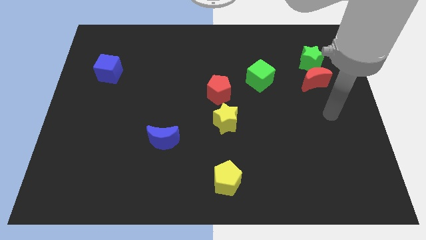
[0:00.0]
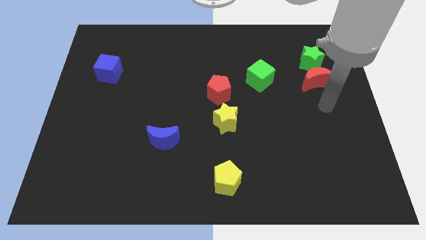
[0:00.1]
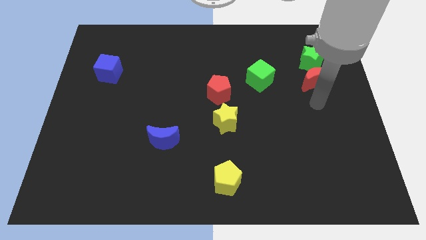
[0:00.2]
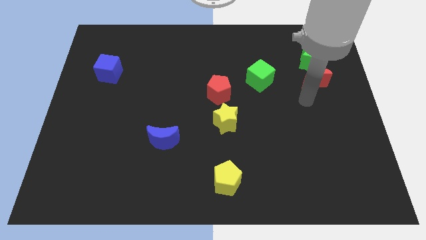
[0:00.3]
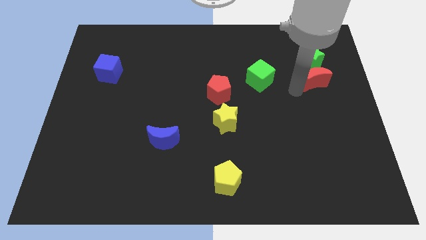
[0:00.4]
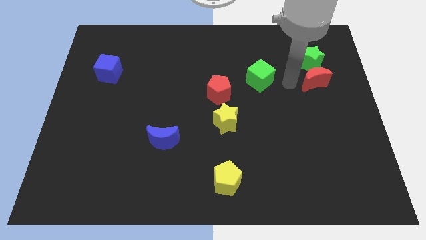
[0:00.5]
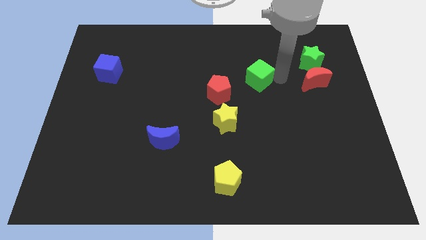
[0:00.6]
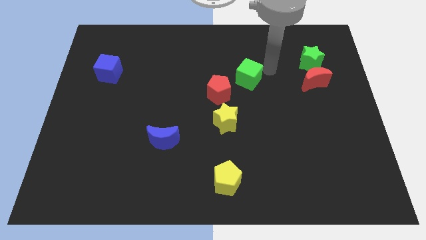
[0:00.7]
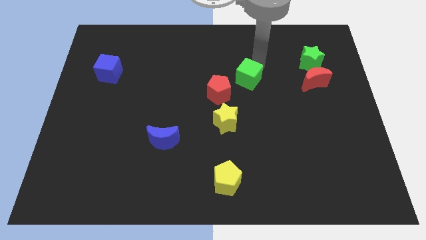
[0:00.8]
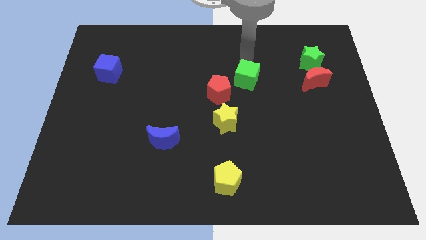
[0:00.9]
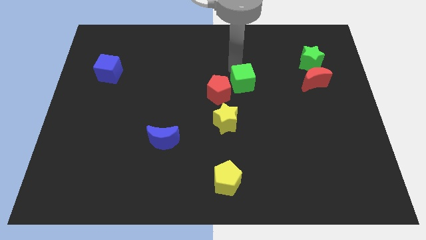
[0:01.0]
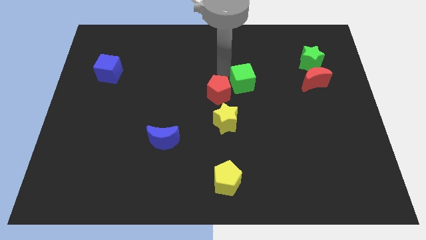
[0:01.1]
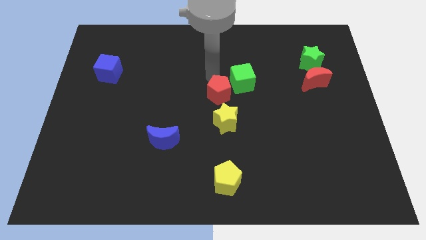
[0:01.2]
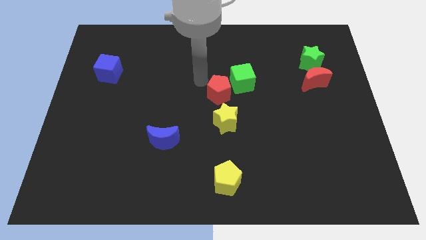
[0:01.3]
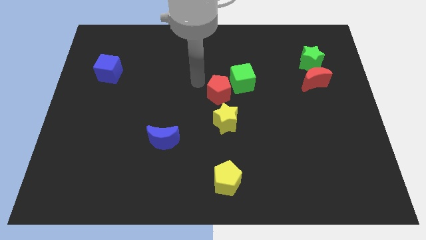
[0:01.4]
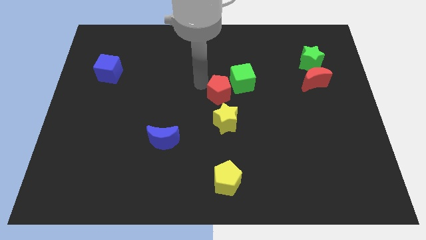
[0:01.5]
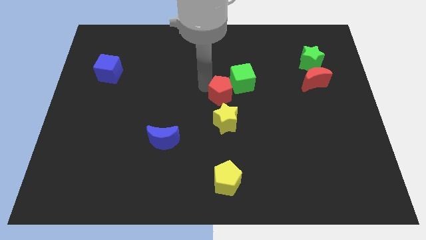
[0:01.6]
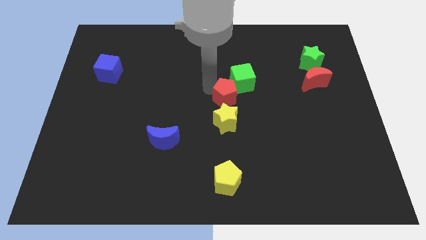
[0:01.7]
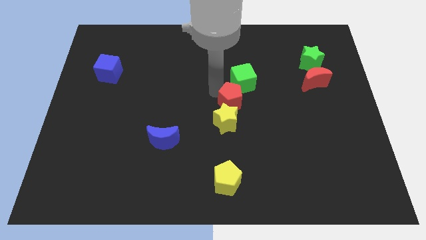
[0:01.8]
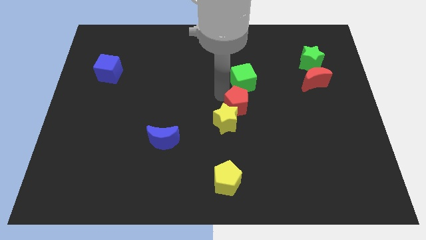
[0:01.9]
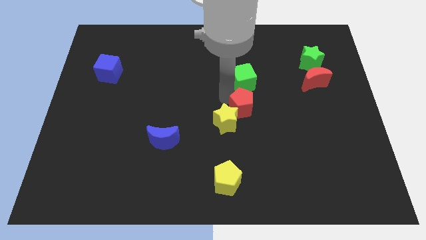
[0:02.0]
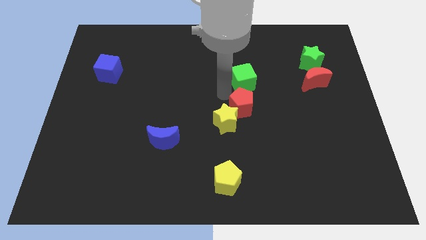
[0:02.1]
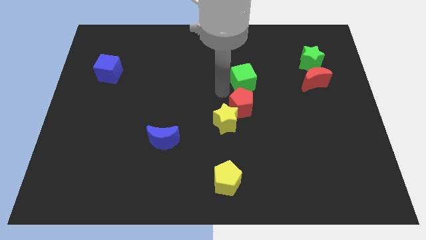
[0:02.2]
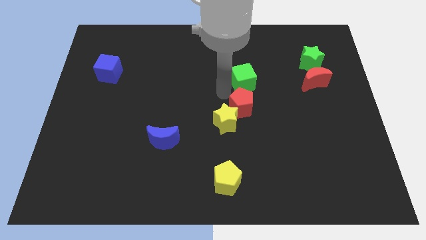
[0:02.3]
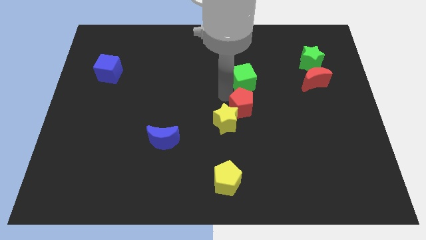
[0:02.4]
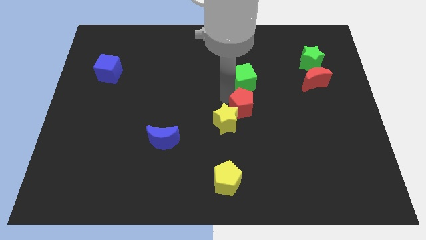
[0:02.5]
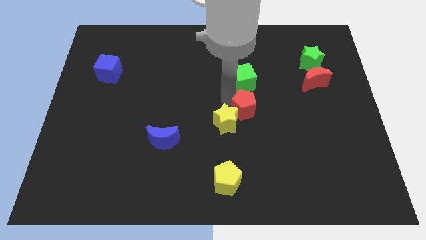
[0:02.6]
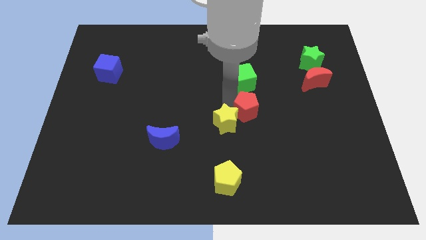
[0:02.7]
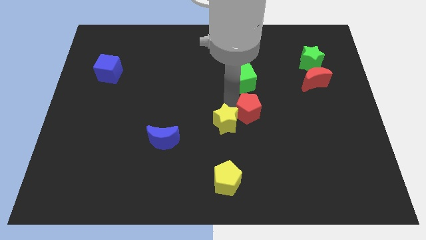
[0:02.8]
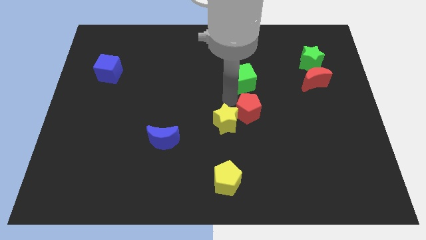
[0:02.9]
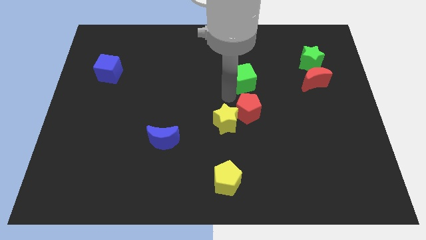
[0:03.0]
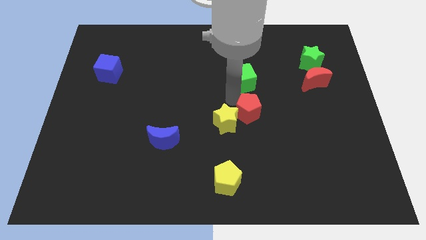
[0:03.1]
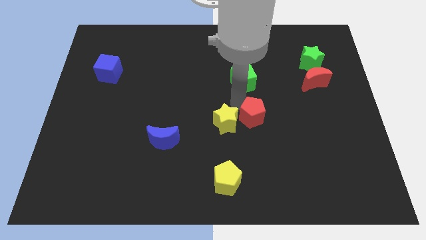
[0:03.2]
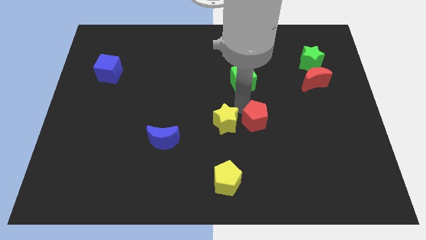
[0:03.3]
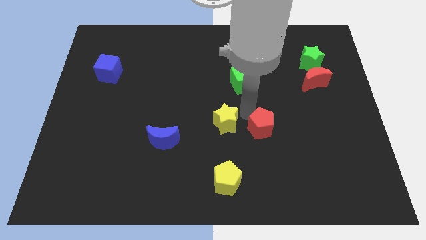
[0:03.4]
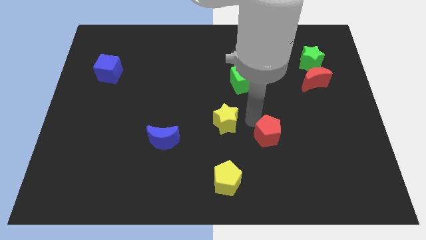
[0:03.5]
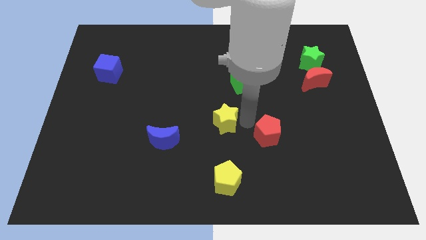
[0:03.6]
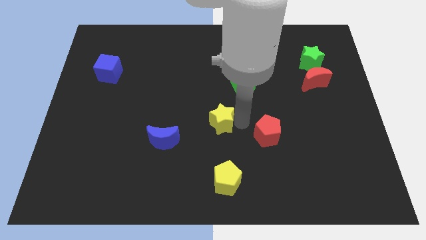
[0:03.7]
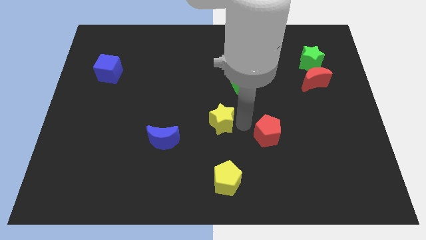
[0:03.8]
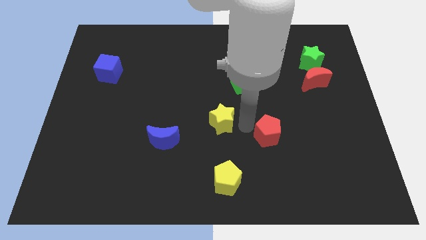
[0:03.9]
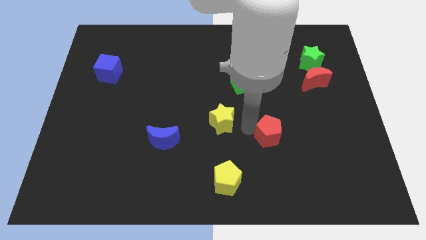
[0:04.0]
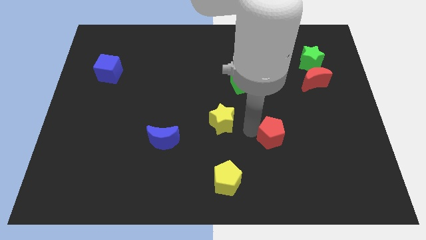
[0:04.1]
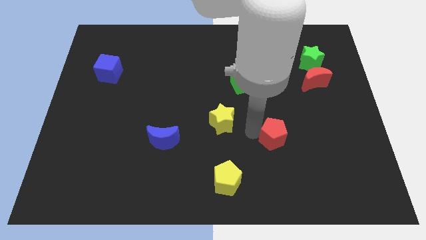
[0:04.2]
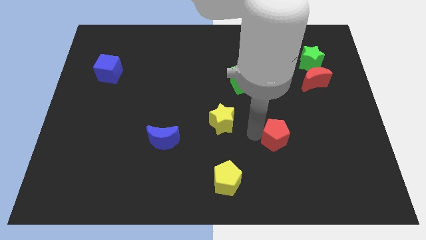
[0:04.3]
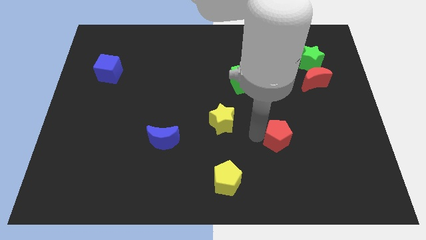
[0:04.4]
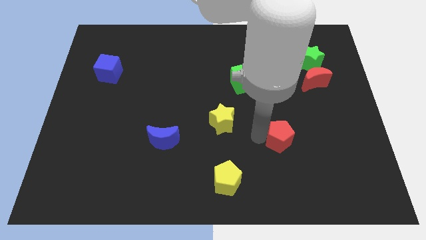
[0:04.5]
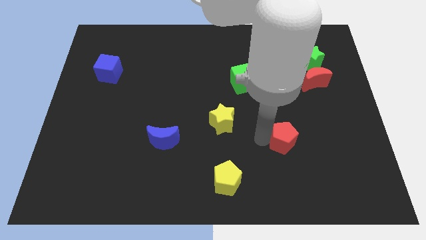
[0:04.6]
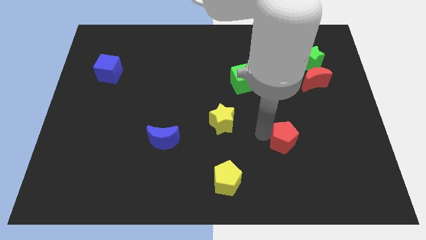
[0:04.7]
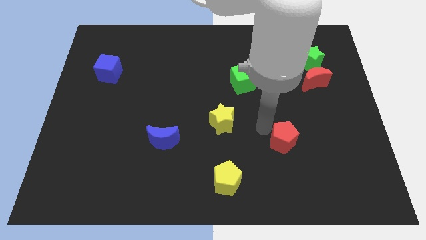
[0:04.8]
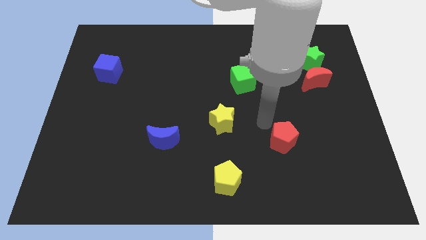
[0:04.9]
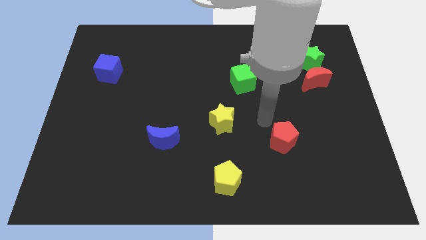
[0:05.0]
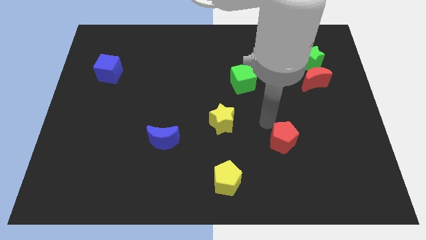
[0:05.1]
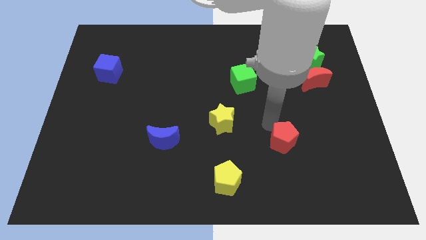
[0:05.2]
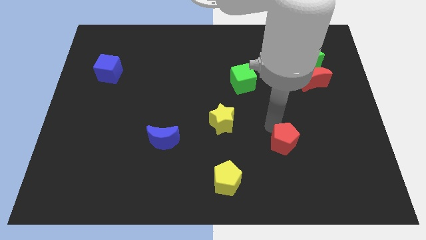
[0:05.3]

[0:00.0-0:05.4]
move the red pentagon downwards and right diagonally

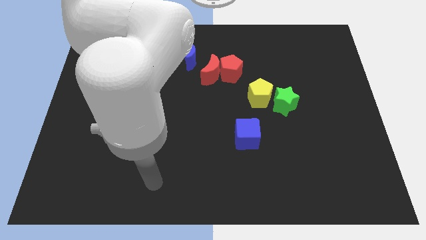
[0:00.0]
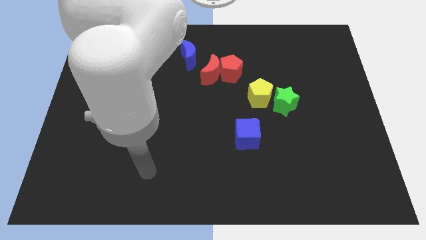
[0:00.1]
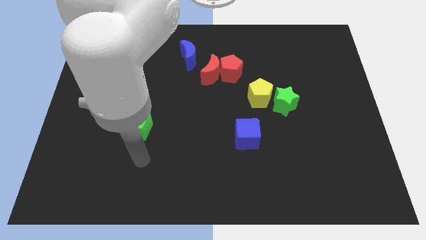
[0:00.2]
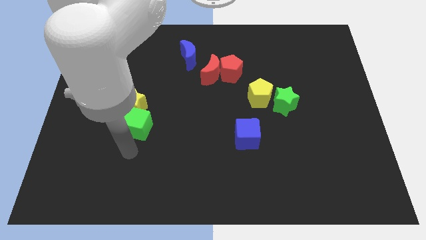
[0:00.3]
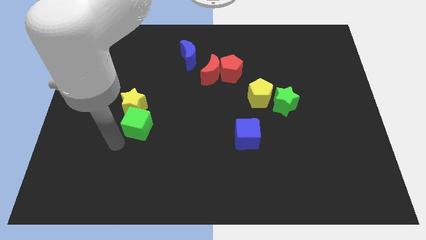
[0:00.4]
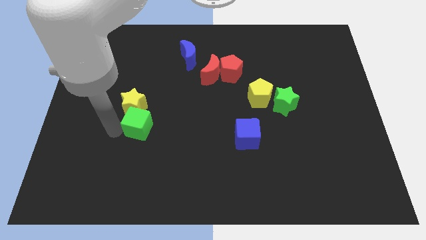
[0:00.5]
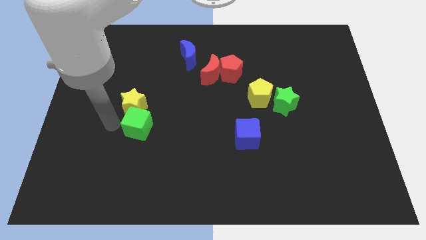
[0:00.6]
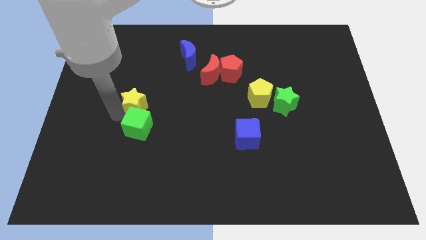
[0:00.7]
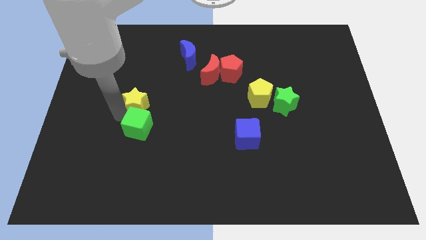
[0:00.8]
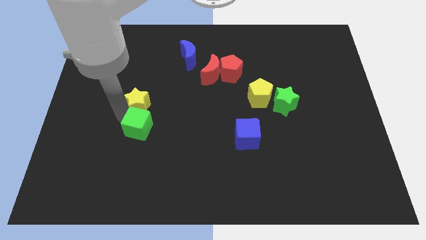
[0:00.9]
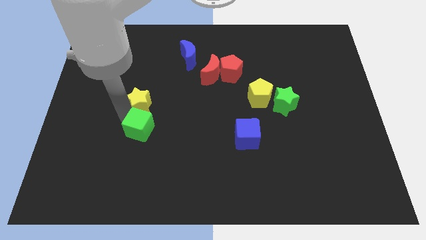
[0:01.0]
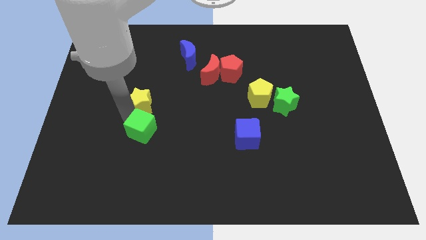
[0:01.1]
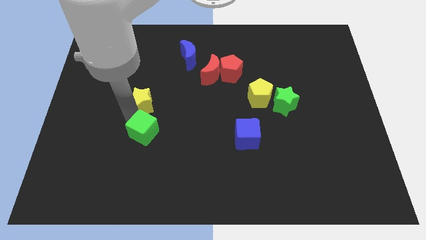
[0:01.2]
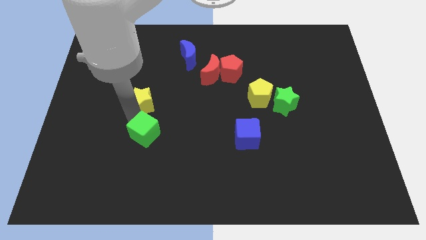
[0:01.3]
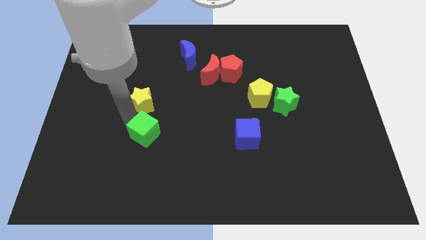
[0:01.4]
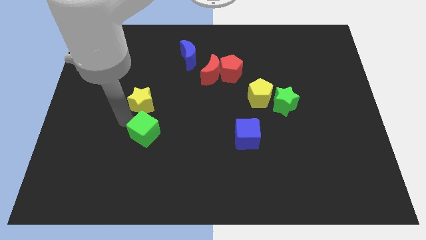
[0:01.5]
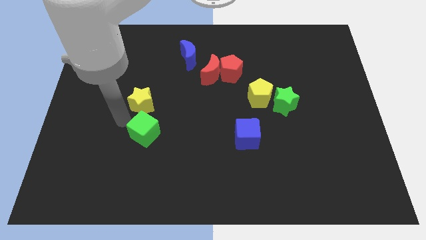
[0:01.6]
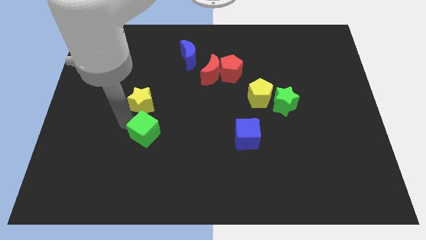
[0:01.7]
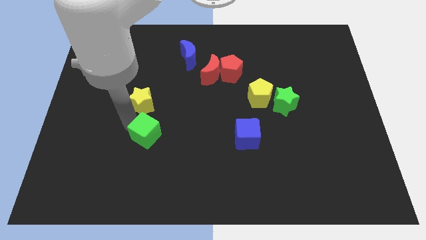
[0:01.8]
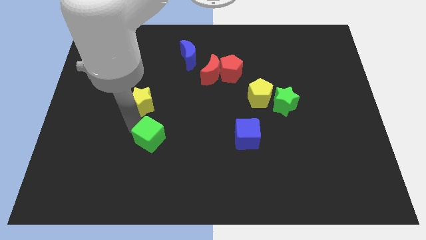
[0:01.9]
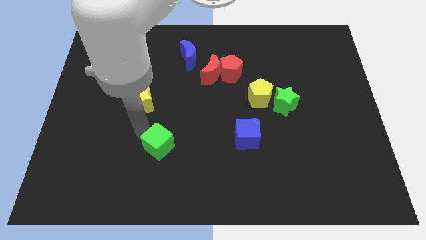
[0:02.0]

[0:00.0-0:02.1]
slide the green cube diagonally down and right a little

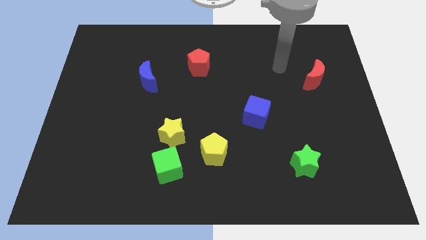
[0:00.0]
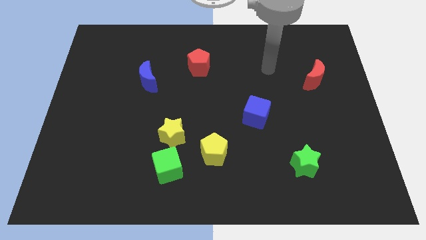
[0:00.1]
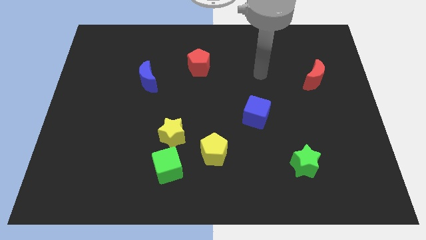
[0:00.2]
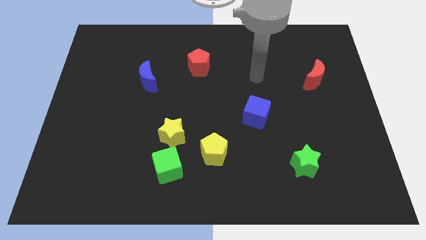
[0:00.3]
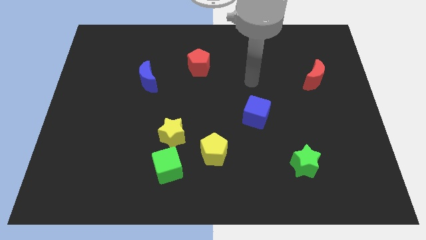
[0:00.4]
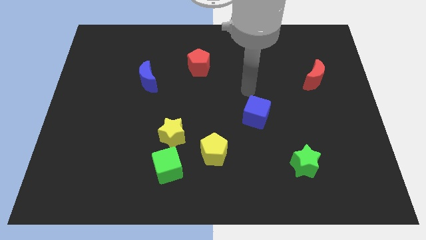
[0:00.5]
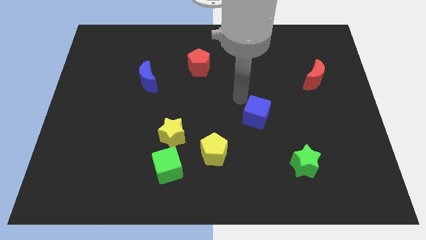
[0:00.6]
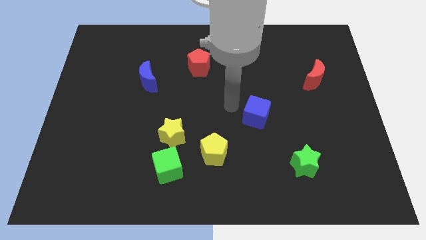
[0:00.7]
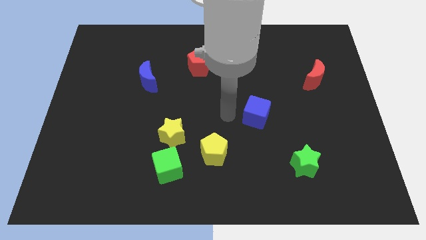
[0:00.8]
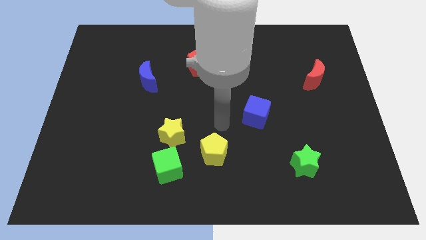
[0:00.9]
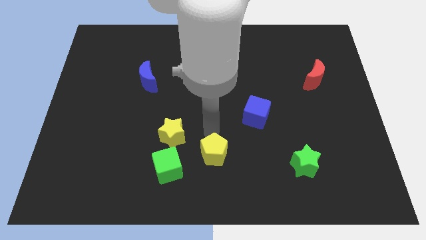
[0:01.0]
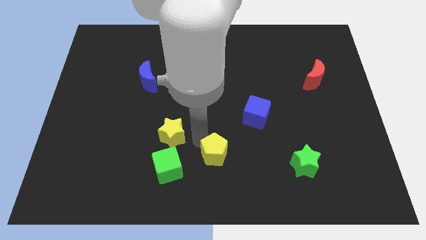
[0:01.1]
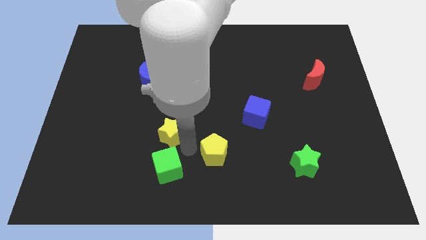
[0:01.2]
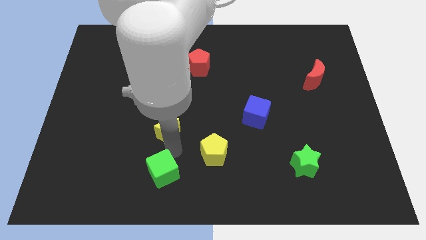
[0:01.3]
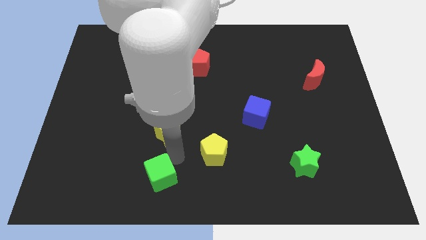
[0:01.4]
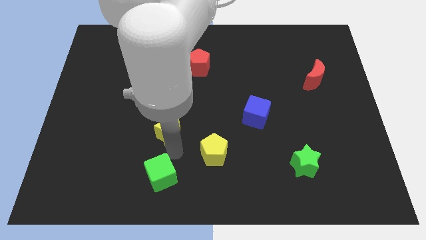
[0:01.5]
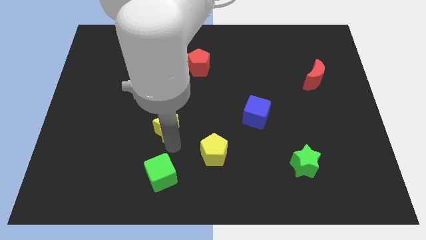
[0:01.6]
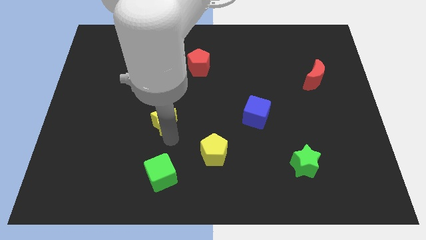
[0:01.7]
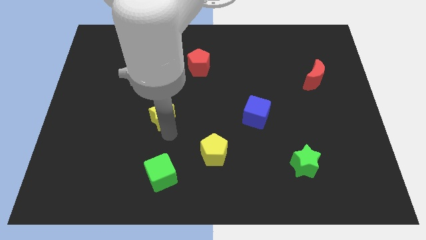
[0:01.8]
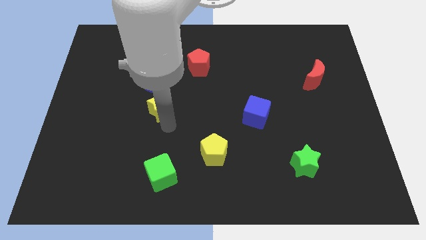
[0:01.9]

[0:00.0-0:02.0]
push the yellow star a little up and left diagonally
